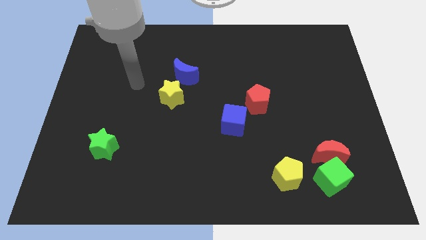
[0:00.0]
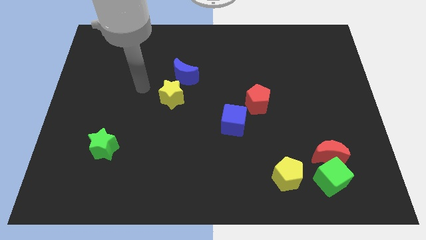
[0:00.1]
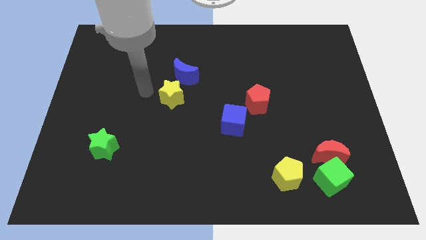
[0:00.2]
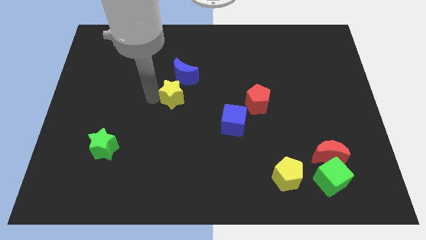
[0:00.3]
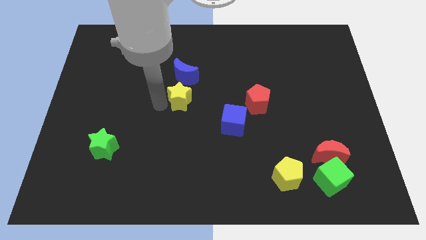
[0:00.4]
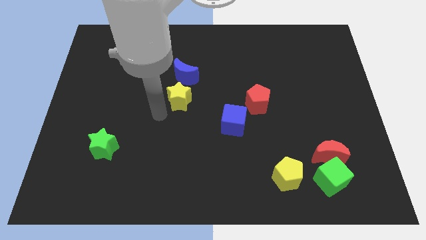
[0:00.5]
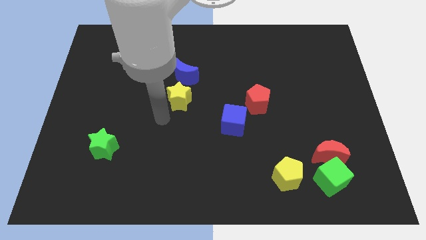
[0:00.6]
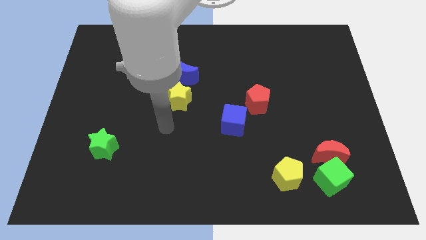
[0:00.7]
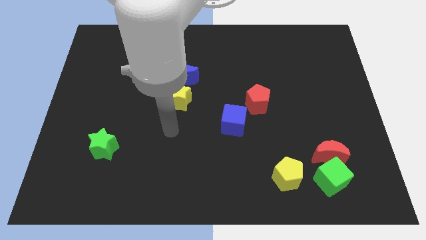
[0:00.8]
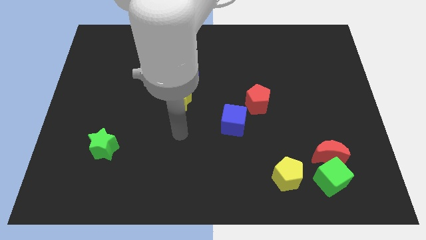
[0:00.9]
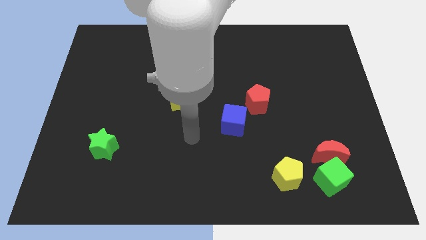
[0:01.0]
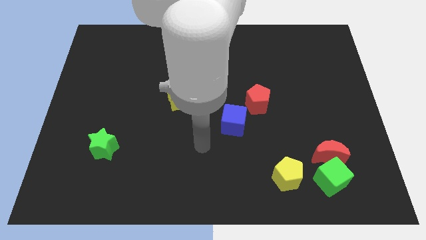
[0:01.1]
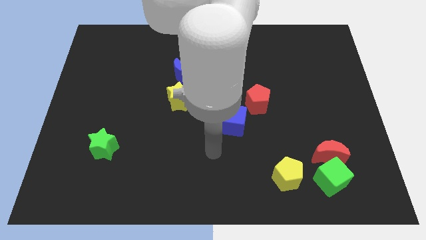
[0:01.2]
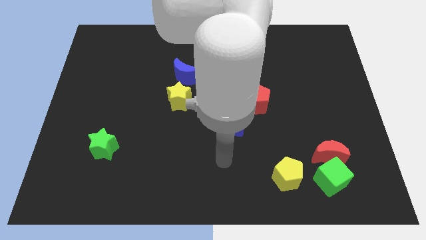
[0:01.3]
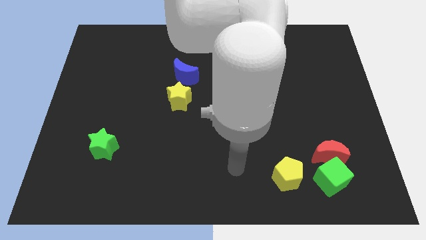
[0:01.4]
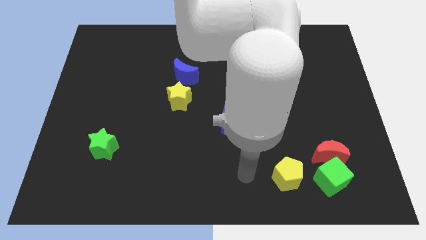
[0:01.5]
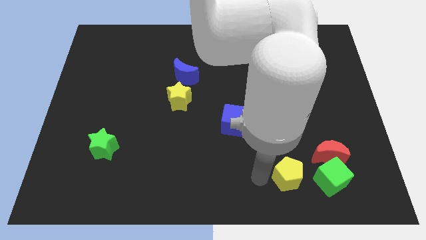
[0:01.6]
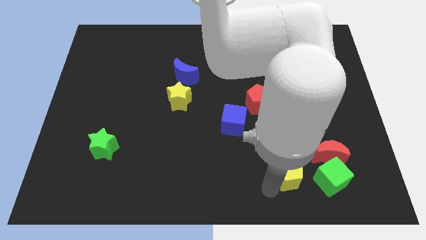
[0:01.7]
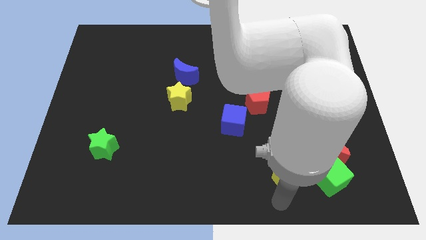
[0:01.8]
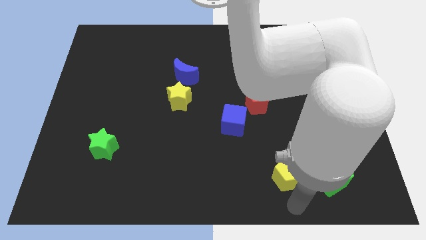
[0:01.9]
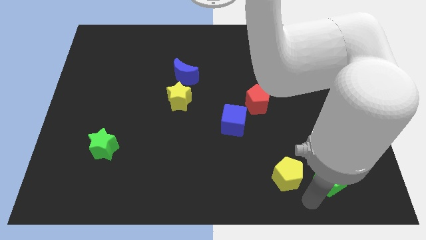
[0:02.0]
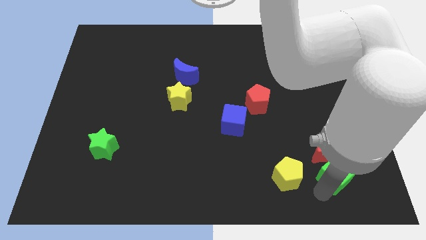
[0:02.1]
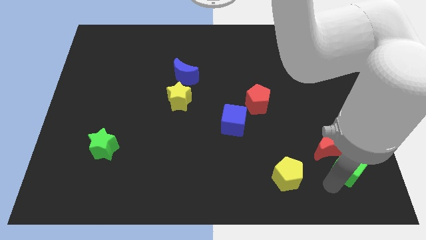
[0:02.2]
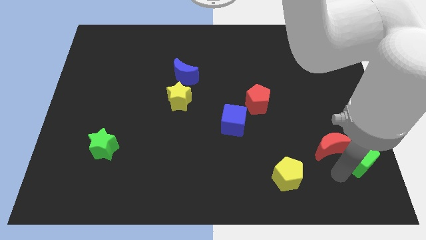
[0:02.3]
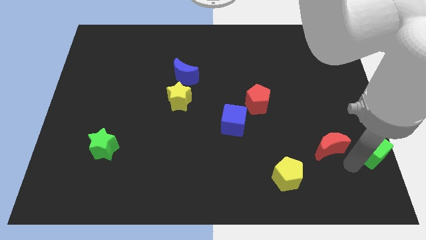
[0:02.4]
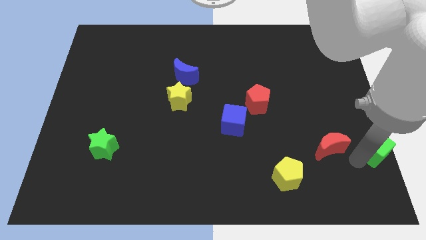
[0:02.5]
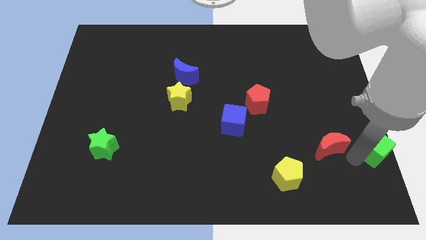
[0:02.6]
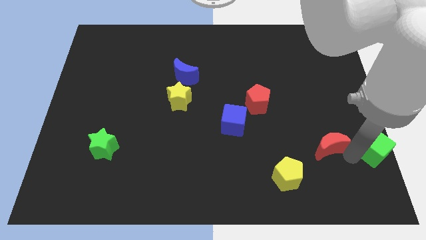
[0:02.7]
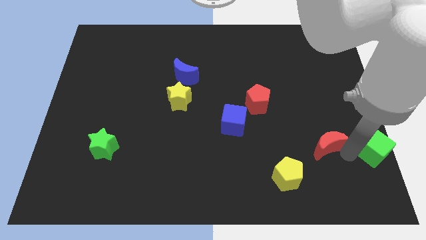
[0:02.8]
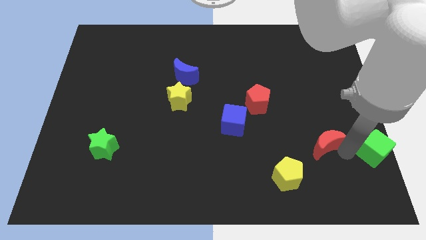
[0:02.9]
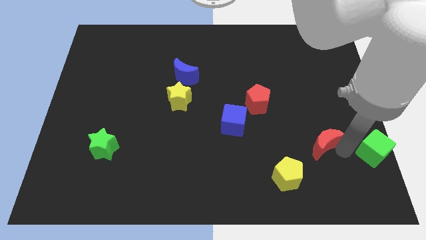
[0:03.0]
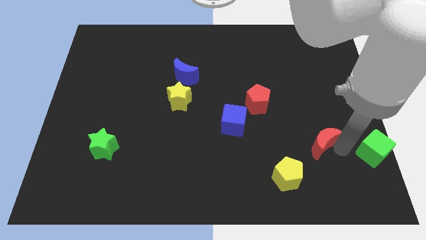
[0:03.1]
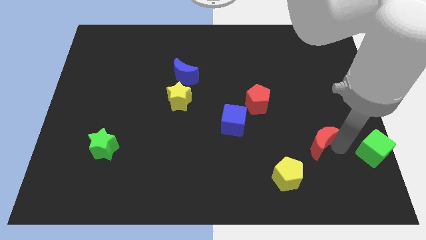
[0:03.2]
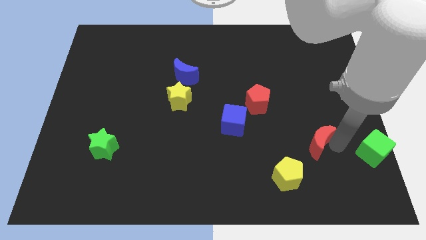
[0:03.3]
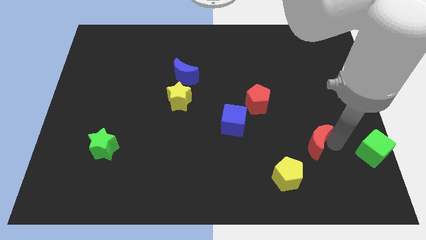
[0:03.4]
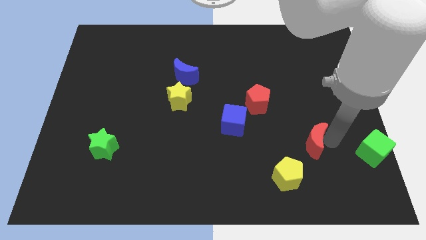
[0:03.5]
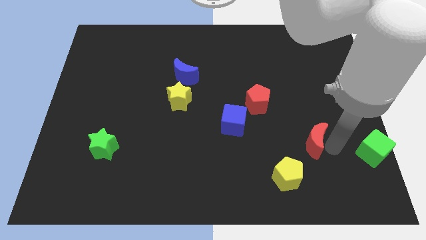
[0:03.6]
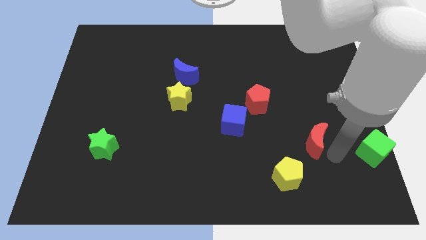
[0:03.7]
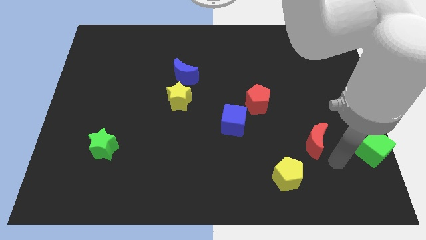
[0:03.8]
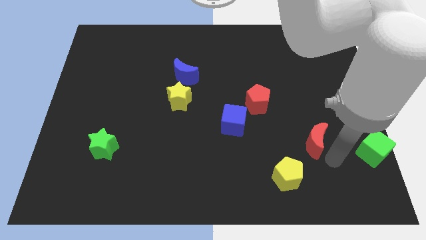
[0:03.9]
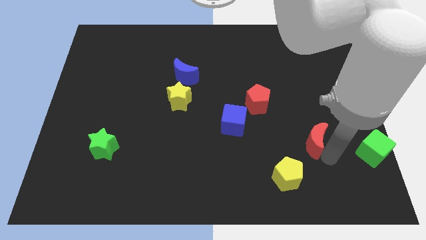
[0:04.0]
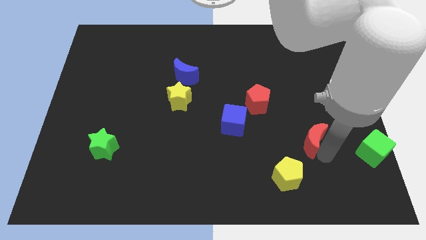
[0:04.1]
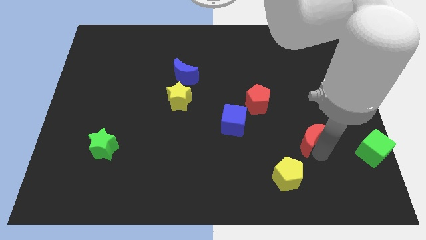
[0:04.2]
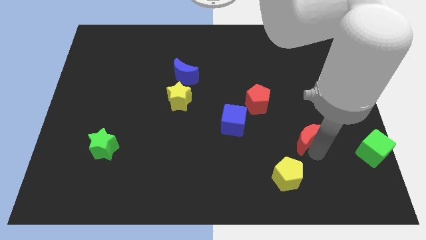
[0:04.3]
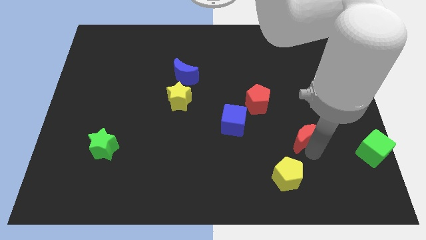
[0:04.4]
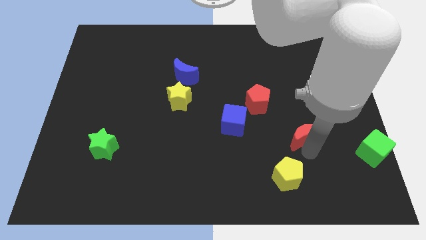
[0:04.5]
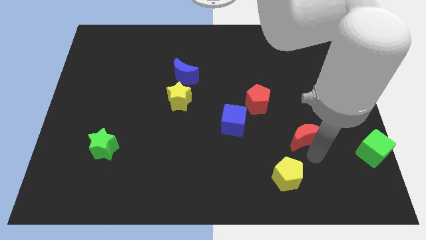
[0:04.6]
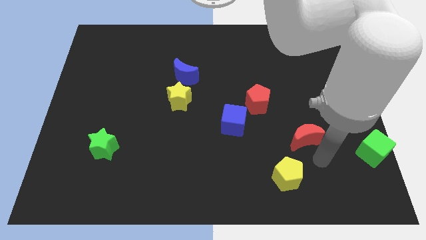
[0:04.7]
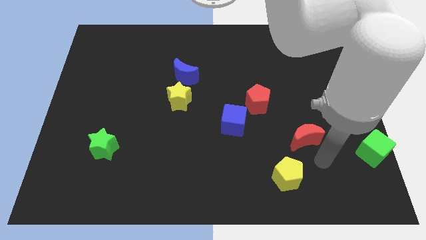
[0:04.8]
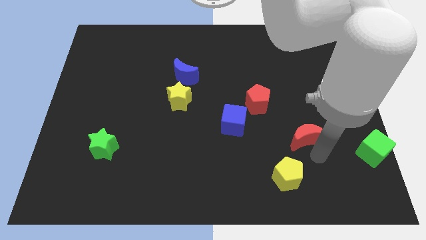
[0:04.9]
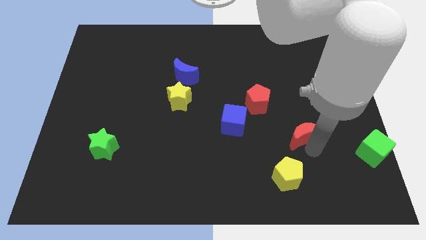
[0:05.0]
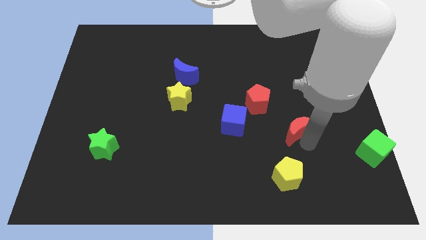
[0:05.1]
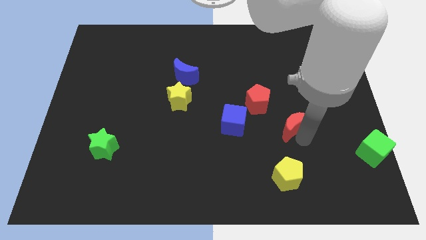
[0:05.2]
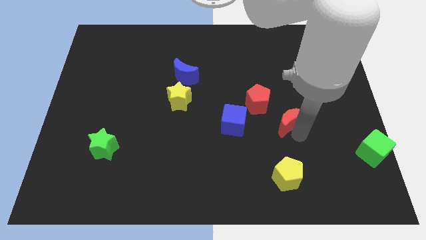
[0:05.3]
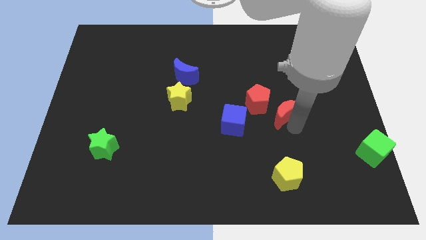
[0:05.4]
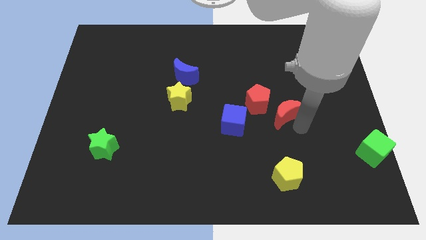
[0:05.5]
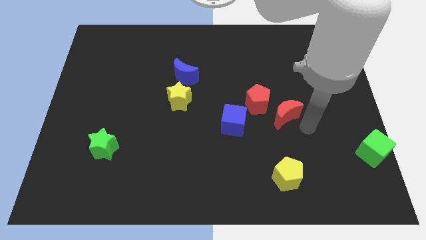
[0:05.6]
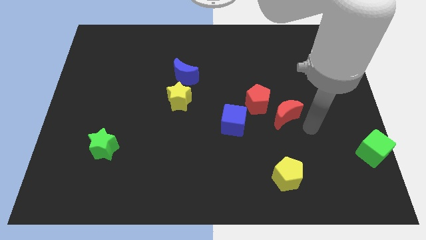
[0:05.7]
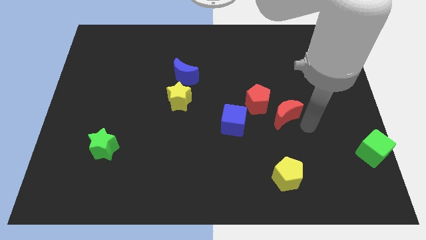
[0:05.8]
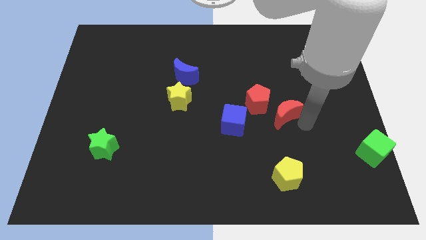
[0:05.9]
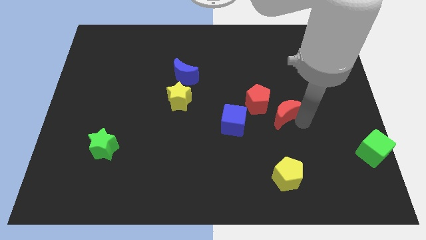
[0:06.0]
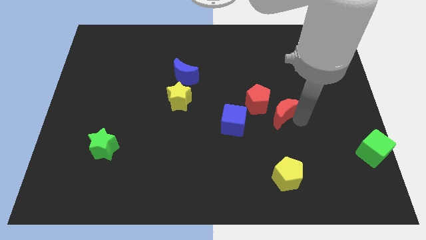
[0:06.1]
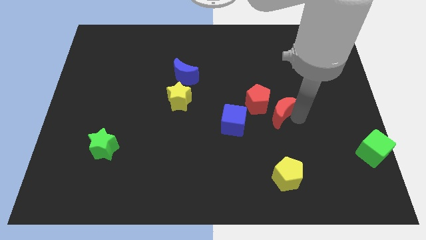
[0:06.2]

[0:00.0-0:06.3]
put the red moon close to the red pentagon

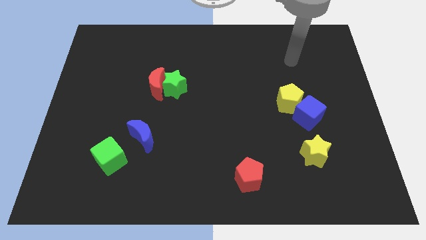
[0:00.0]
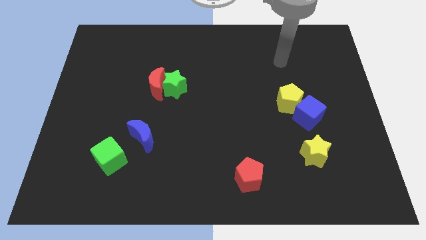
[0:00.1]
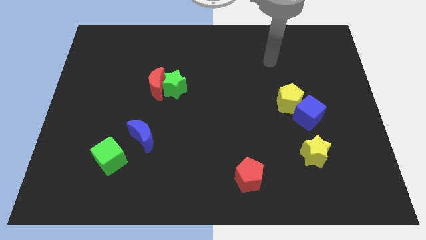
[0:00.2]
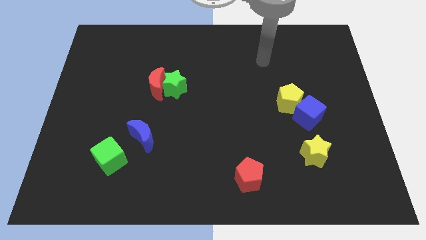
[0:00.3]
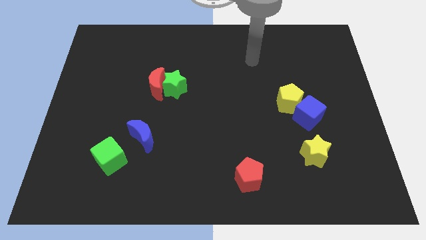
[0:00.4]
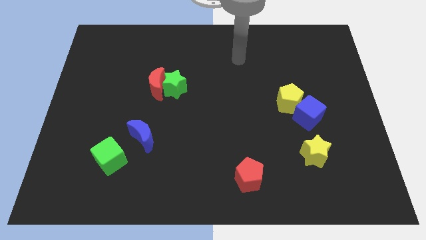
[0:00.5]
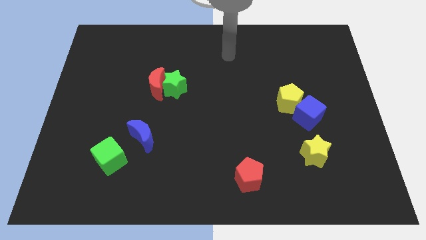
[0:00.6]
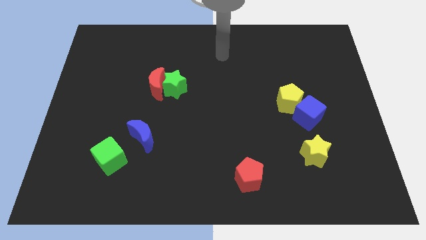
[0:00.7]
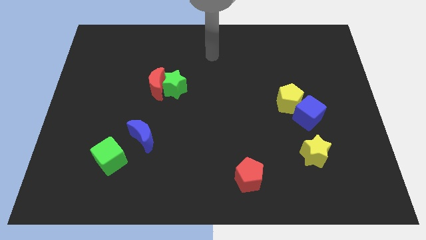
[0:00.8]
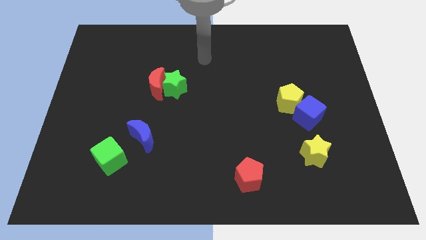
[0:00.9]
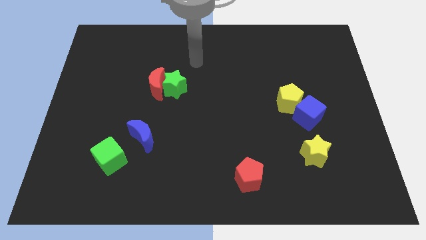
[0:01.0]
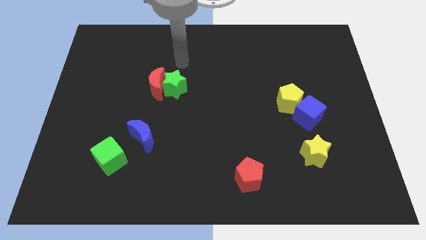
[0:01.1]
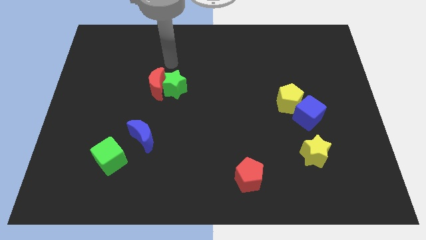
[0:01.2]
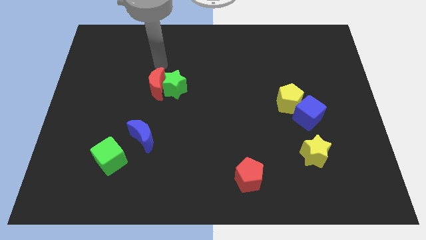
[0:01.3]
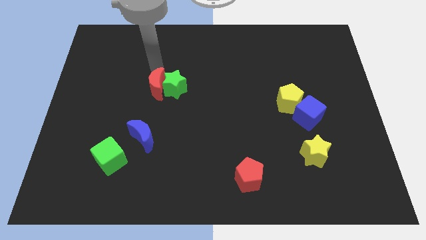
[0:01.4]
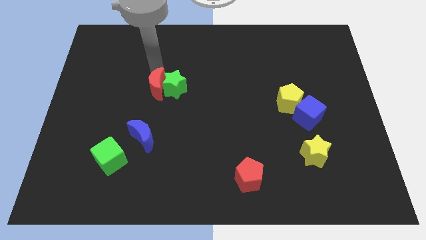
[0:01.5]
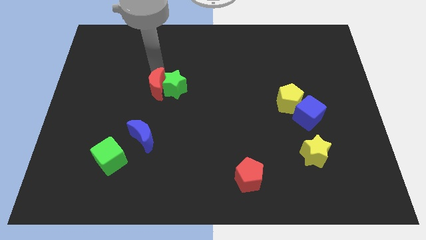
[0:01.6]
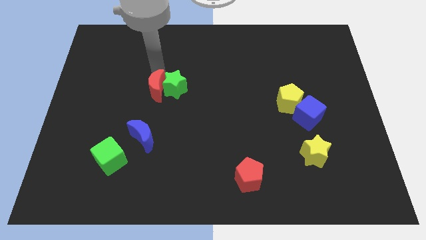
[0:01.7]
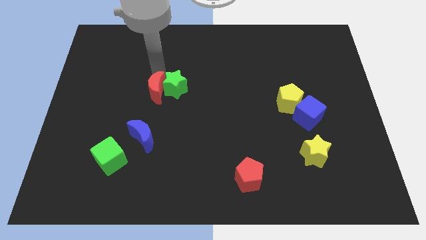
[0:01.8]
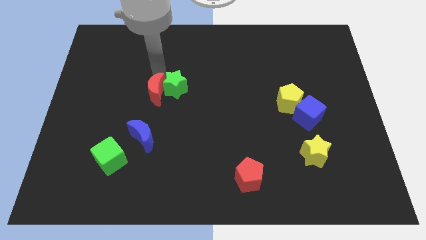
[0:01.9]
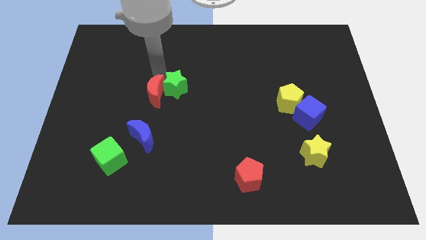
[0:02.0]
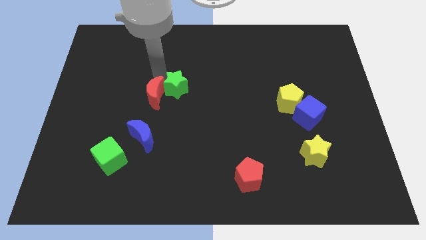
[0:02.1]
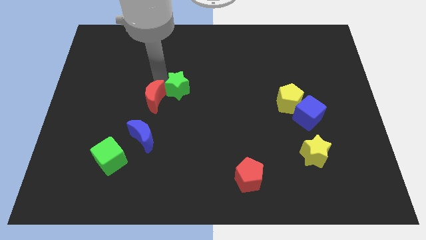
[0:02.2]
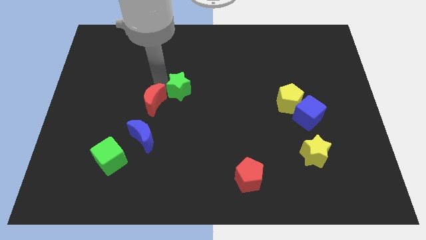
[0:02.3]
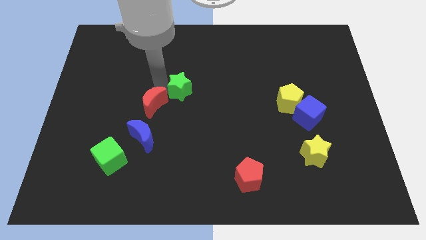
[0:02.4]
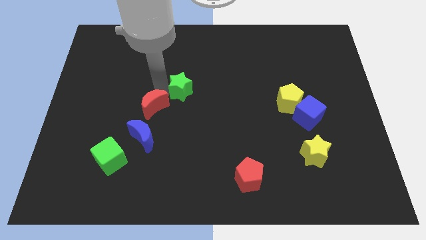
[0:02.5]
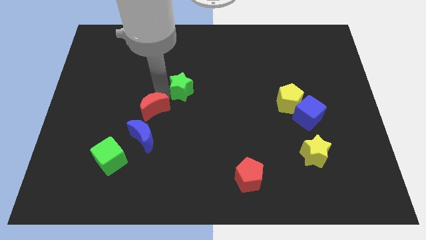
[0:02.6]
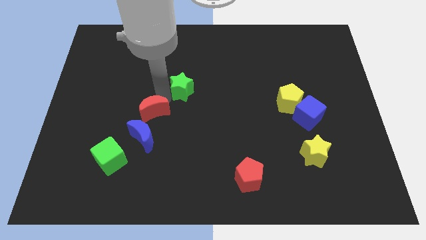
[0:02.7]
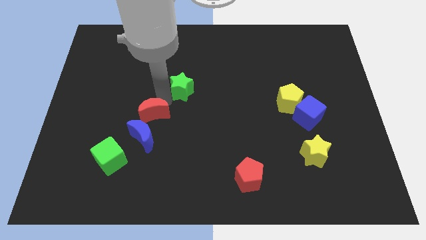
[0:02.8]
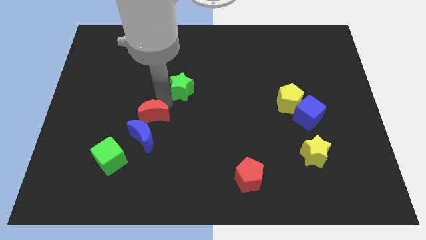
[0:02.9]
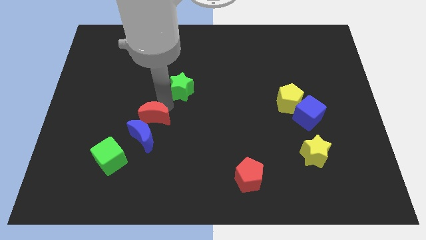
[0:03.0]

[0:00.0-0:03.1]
push the red moon to the blue moon
